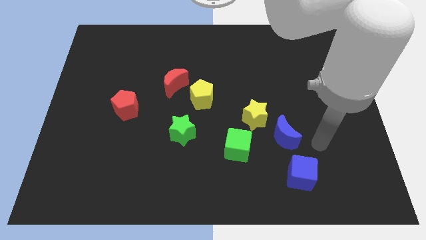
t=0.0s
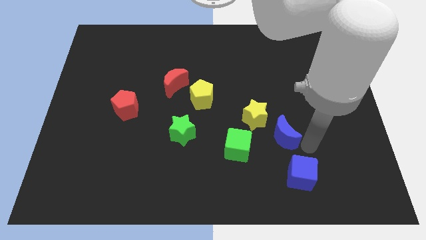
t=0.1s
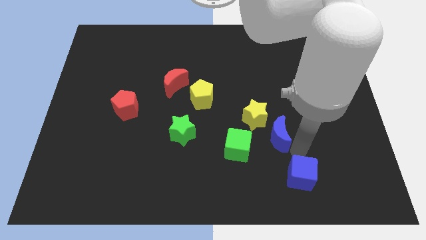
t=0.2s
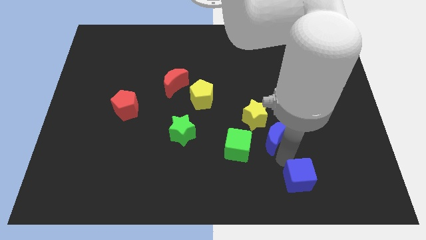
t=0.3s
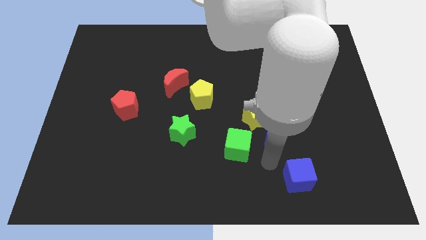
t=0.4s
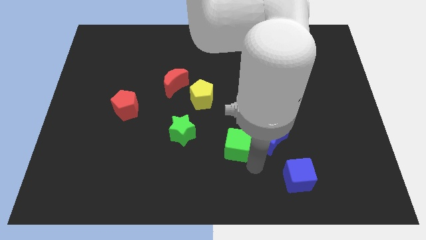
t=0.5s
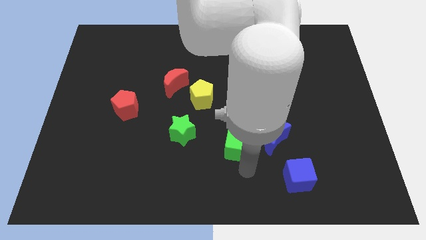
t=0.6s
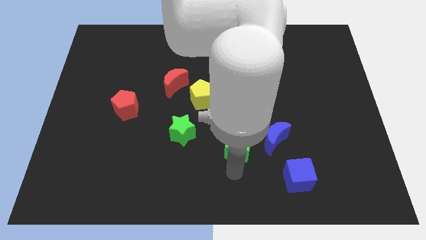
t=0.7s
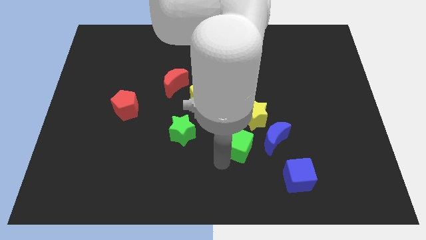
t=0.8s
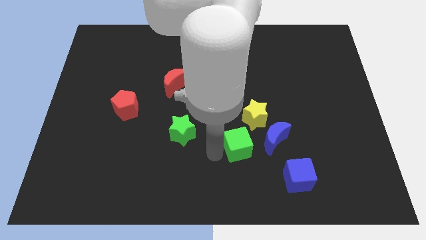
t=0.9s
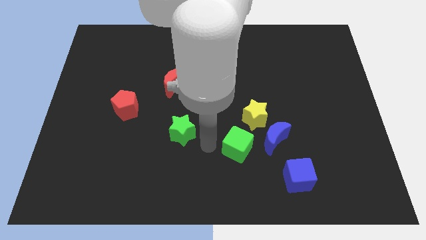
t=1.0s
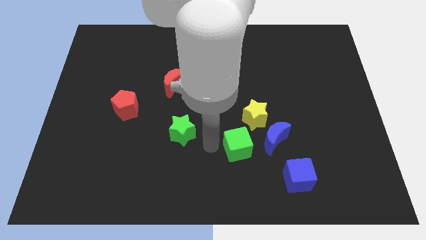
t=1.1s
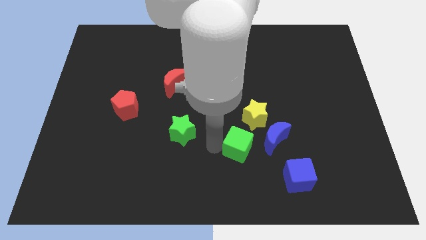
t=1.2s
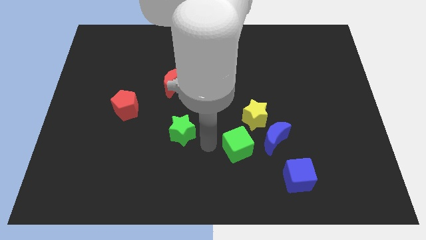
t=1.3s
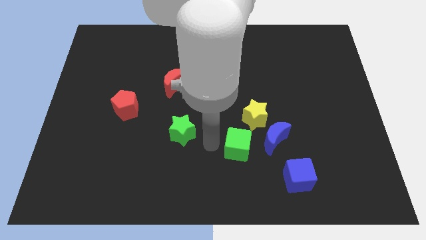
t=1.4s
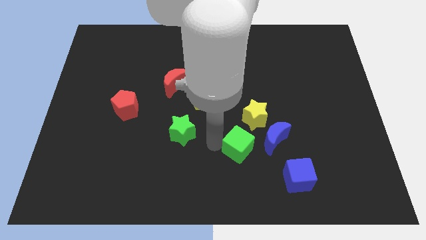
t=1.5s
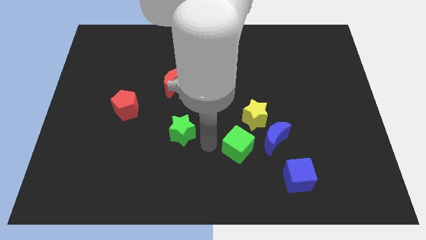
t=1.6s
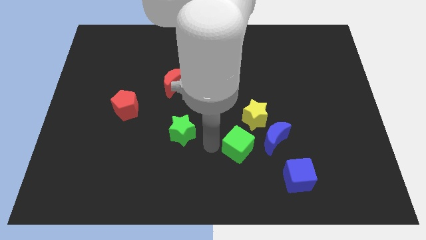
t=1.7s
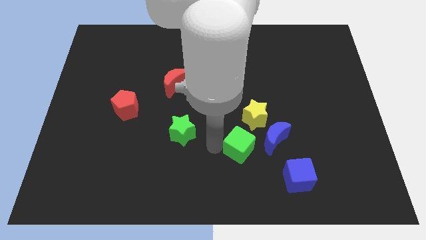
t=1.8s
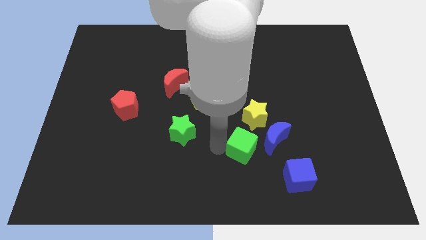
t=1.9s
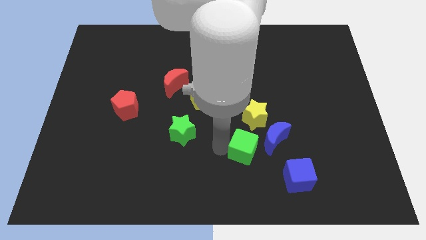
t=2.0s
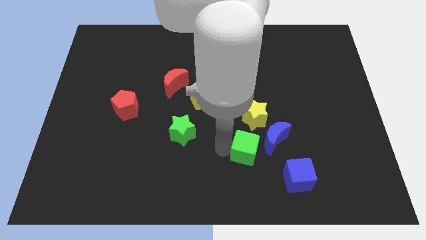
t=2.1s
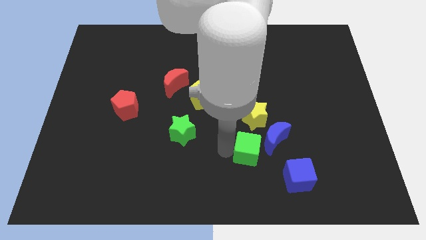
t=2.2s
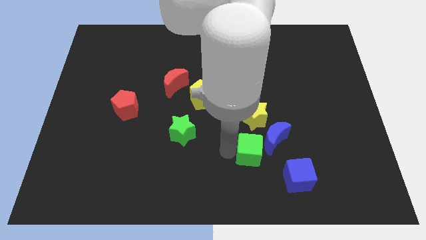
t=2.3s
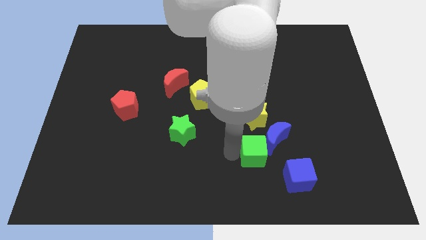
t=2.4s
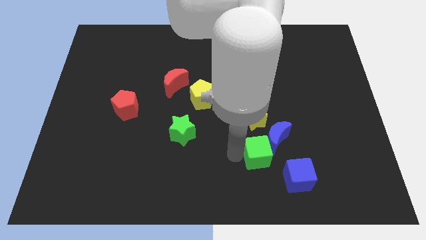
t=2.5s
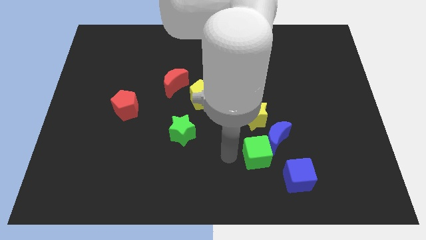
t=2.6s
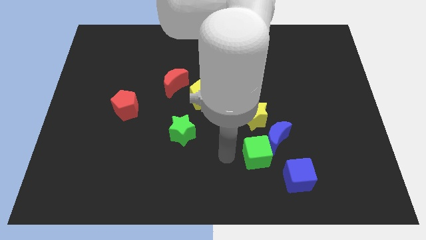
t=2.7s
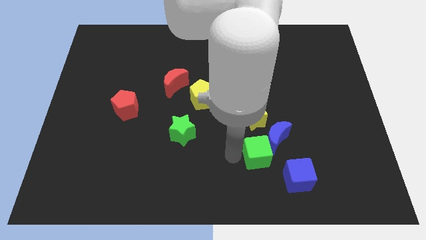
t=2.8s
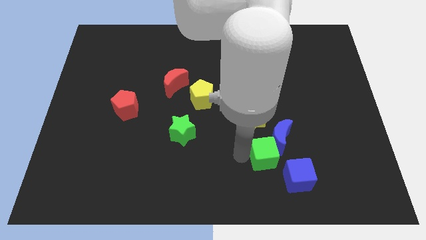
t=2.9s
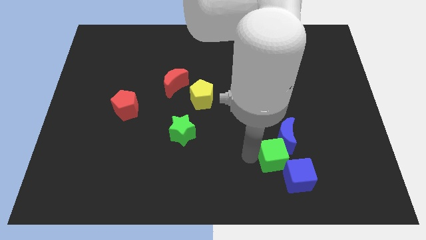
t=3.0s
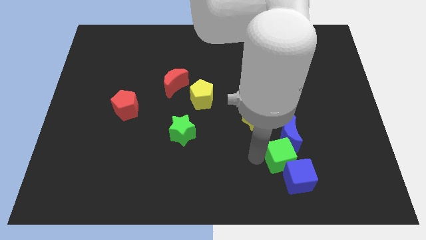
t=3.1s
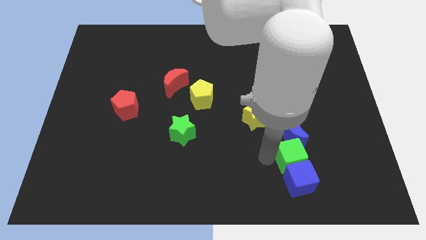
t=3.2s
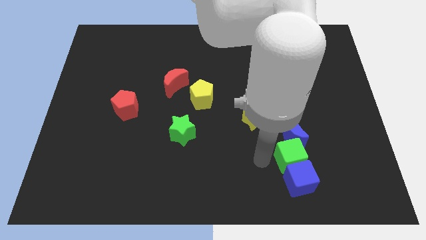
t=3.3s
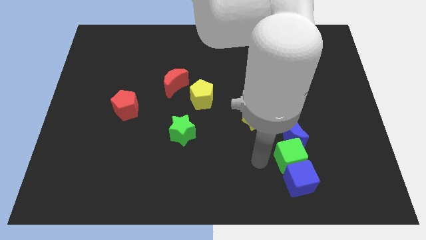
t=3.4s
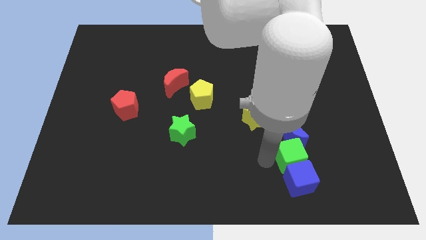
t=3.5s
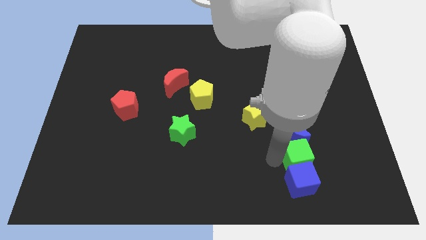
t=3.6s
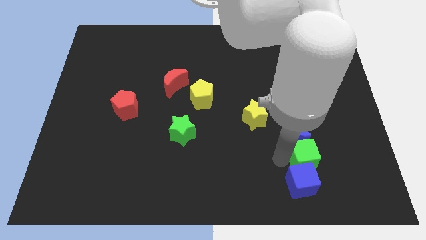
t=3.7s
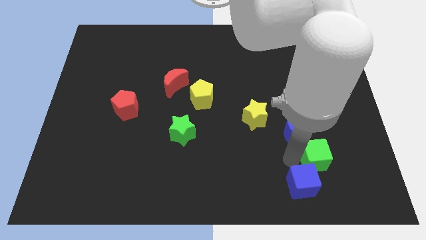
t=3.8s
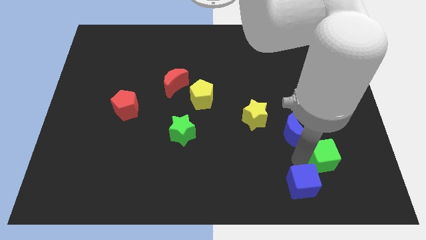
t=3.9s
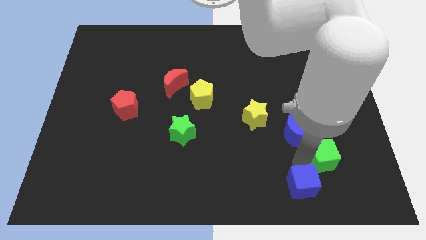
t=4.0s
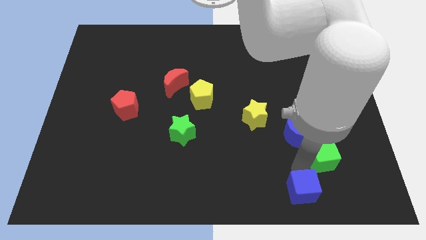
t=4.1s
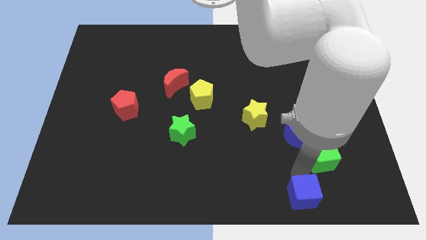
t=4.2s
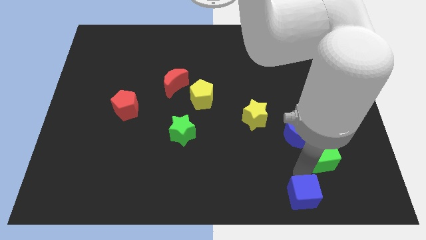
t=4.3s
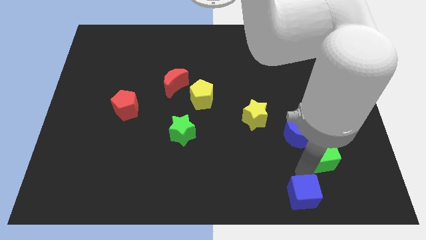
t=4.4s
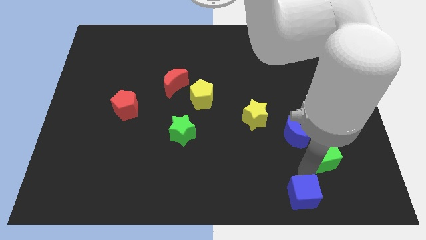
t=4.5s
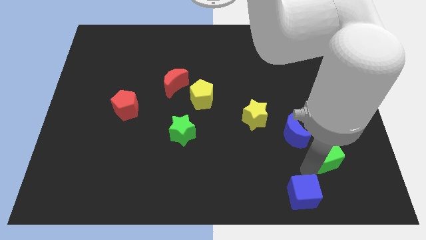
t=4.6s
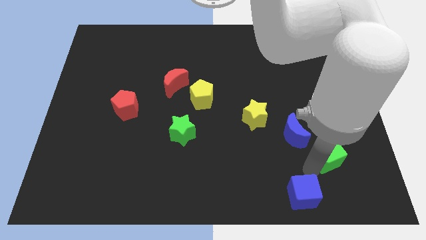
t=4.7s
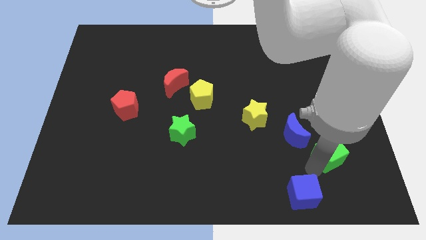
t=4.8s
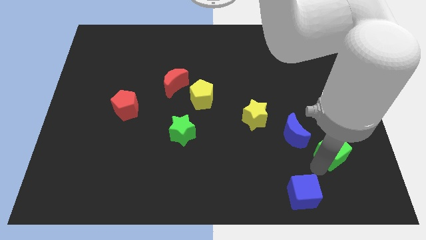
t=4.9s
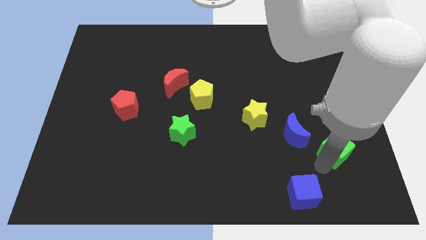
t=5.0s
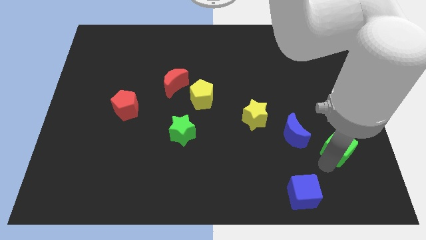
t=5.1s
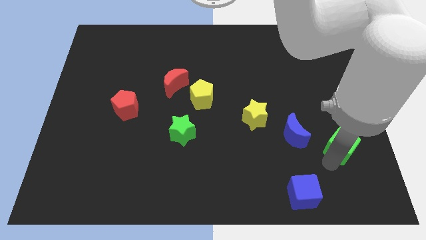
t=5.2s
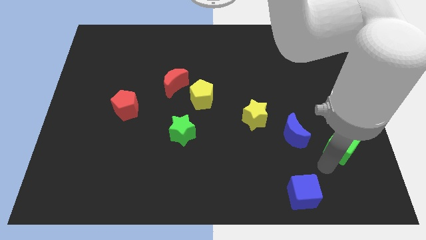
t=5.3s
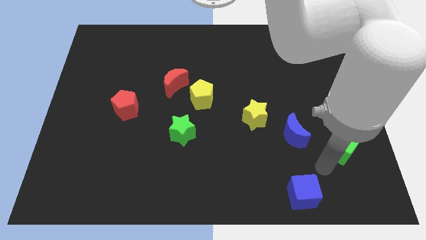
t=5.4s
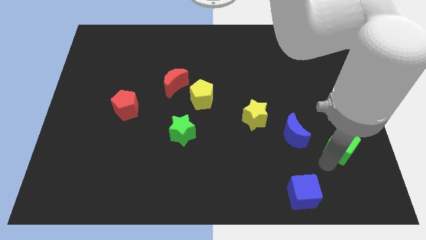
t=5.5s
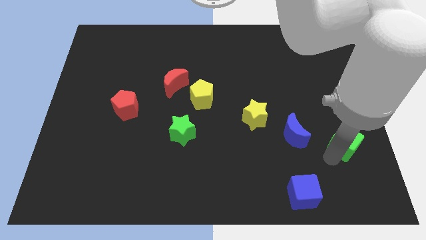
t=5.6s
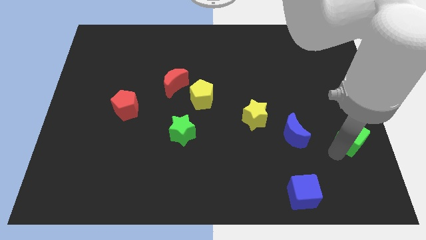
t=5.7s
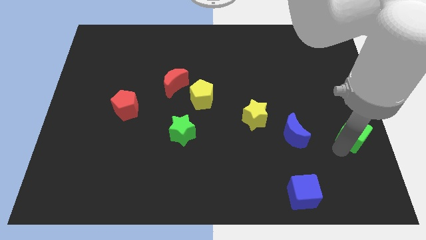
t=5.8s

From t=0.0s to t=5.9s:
move the green cube to the center right

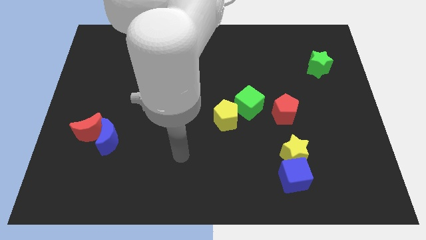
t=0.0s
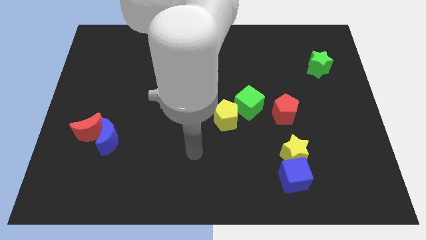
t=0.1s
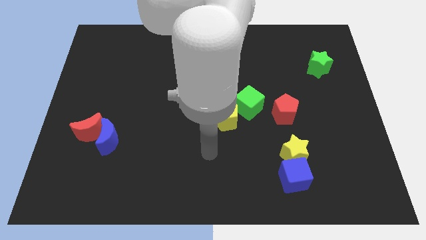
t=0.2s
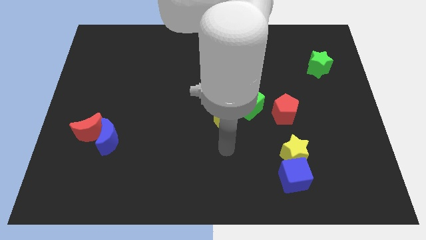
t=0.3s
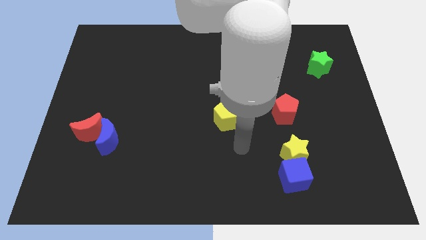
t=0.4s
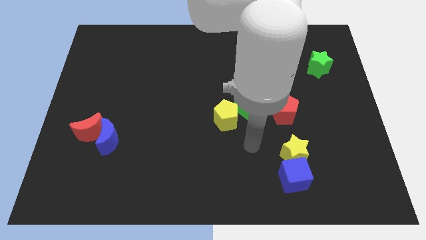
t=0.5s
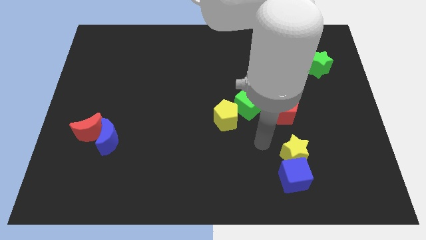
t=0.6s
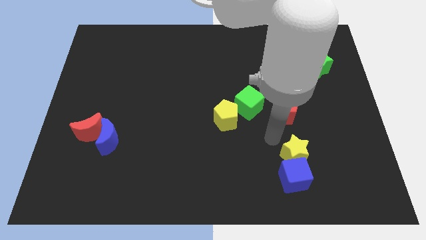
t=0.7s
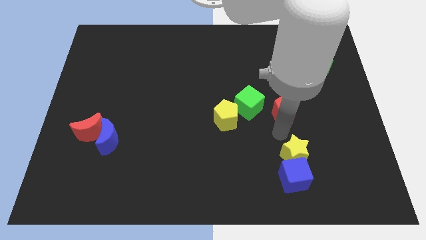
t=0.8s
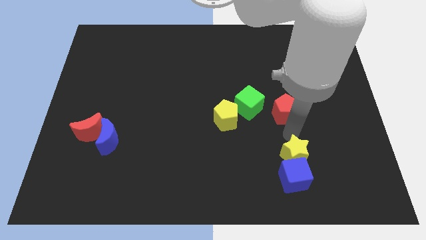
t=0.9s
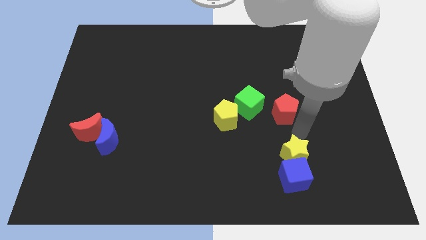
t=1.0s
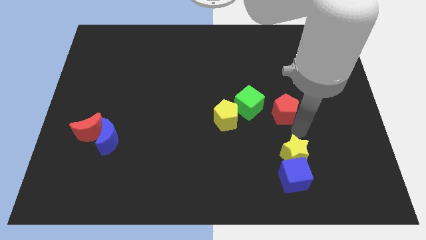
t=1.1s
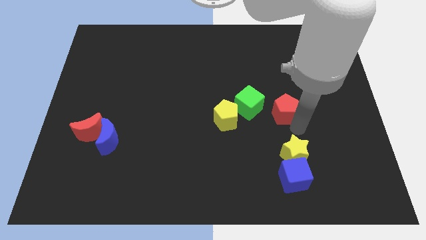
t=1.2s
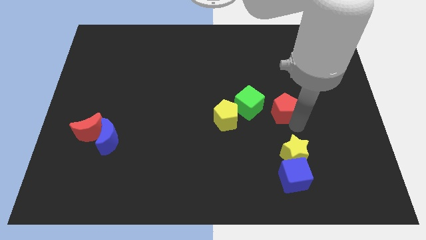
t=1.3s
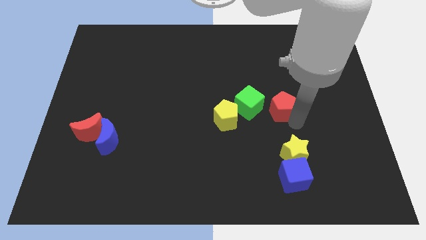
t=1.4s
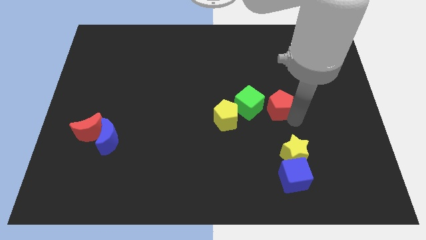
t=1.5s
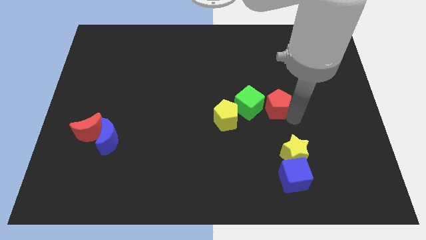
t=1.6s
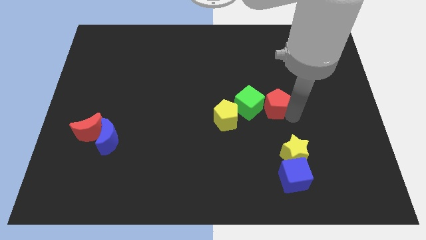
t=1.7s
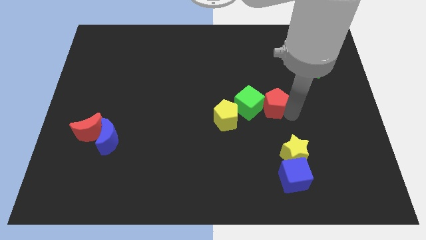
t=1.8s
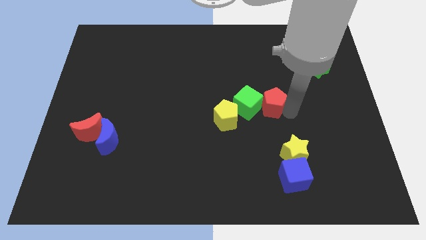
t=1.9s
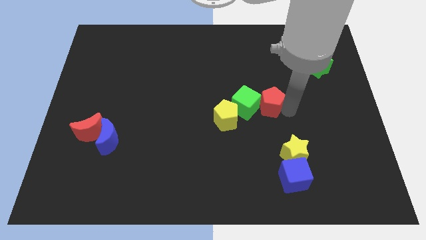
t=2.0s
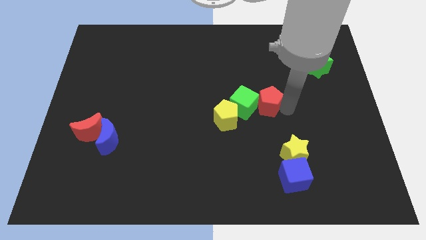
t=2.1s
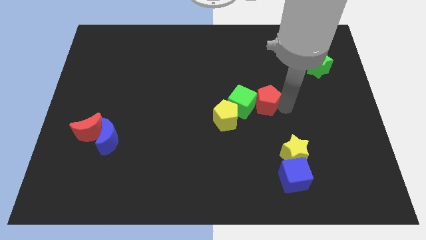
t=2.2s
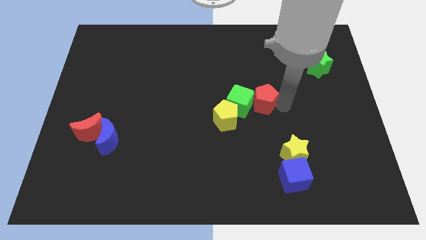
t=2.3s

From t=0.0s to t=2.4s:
move the red pentagon to the center of the board
